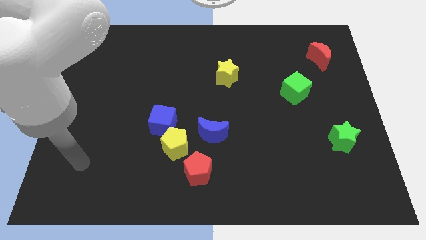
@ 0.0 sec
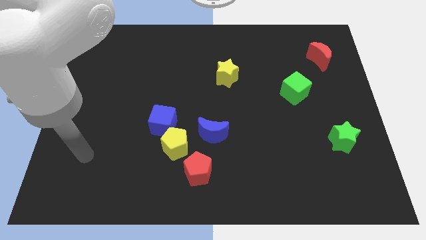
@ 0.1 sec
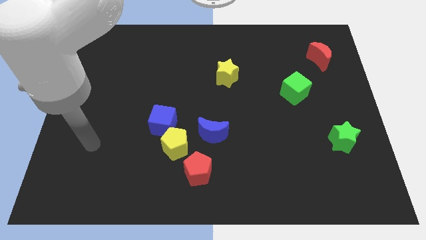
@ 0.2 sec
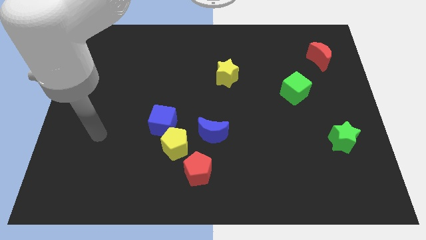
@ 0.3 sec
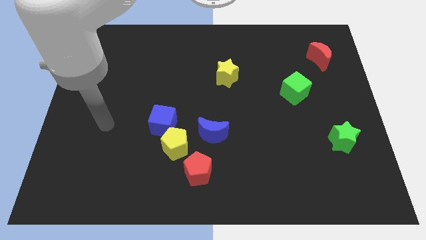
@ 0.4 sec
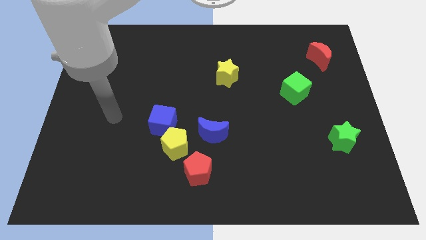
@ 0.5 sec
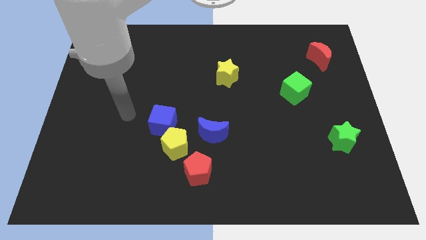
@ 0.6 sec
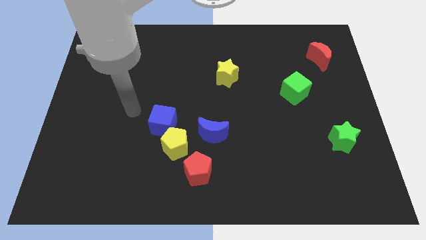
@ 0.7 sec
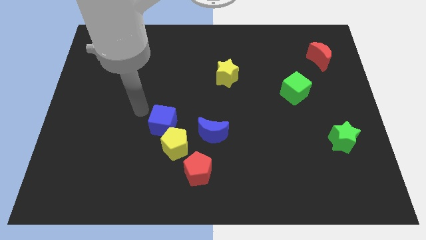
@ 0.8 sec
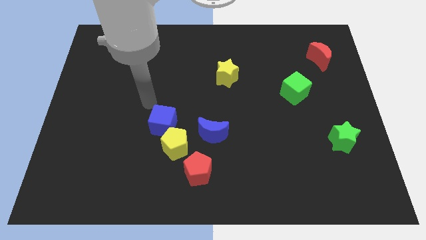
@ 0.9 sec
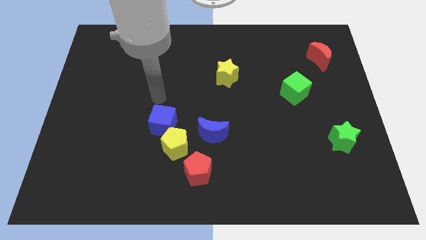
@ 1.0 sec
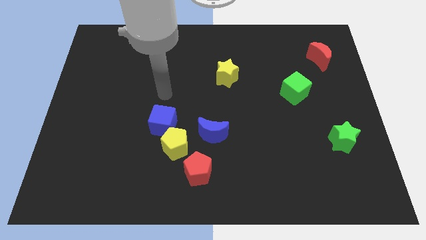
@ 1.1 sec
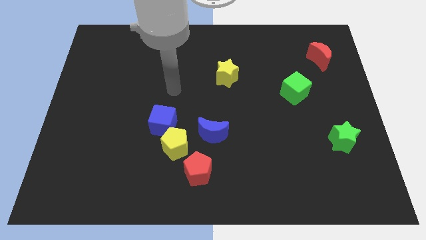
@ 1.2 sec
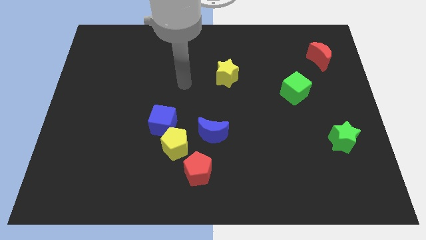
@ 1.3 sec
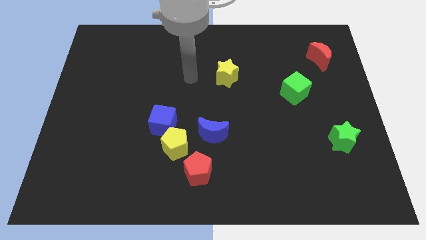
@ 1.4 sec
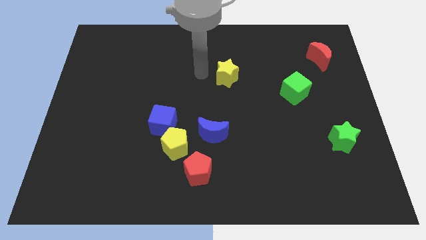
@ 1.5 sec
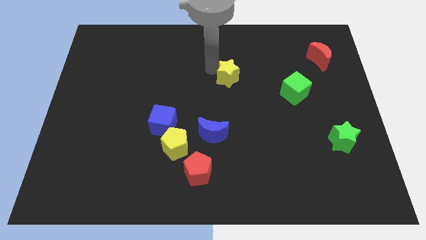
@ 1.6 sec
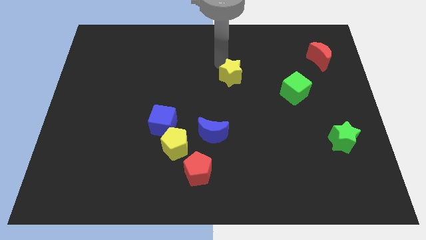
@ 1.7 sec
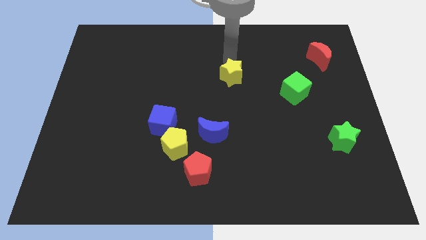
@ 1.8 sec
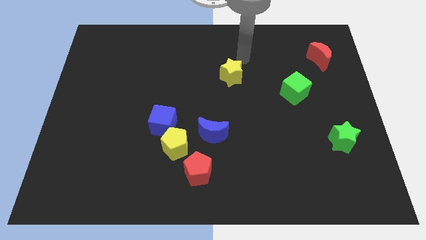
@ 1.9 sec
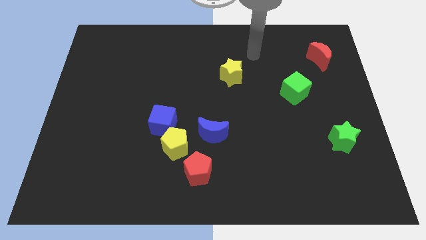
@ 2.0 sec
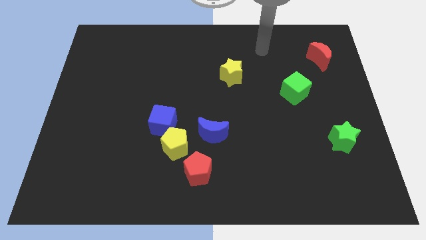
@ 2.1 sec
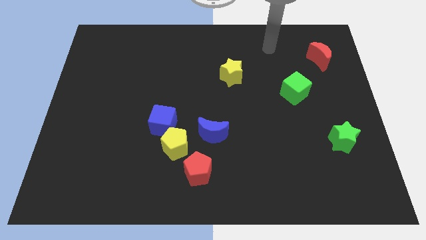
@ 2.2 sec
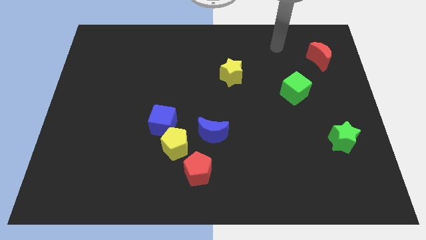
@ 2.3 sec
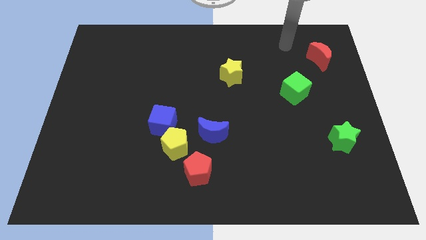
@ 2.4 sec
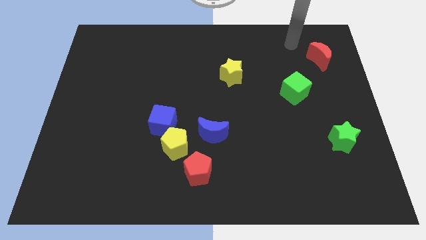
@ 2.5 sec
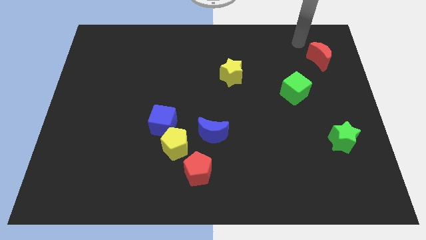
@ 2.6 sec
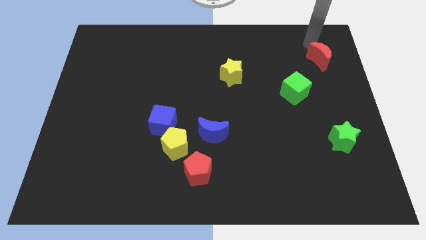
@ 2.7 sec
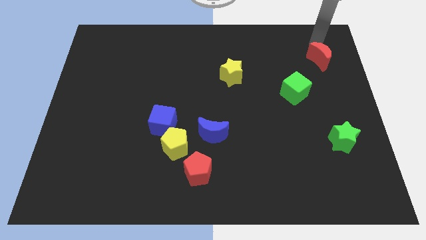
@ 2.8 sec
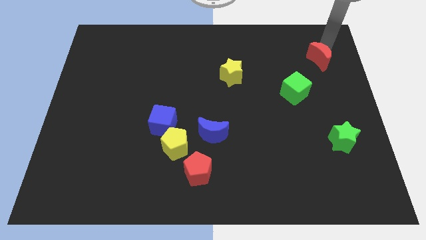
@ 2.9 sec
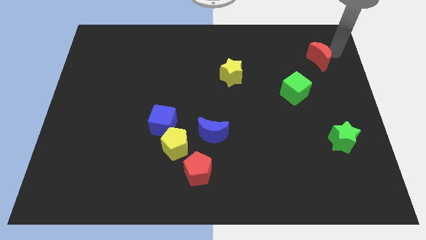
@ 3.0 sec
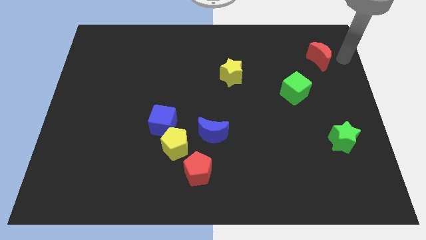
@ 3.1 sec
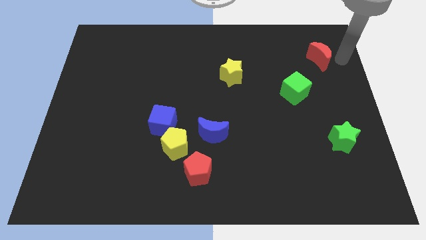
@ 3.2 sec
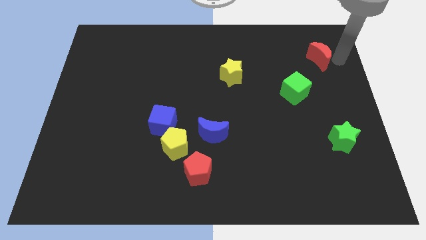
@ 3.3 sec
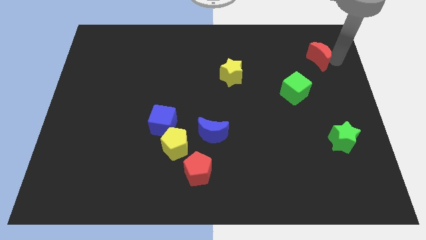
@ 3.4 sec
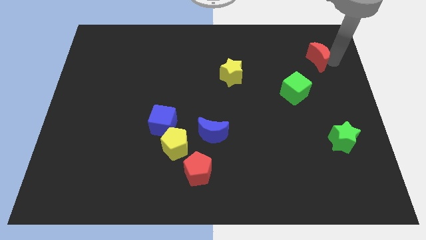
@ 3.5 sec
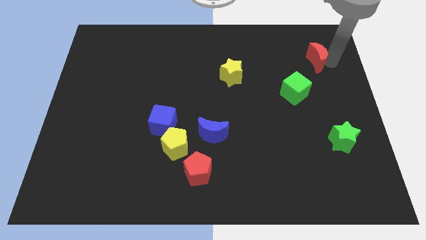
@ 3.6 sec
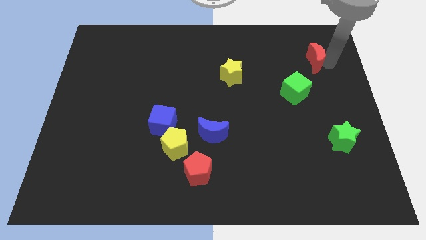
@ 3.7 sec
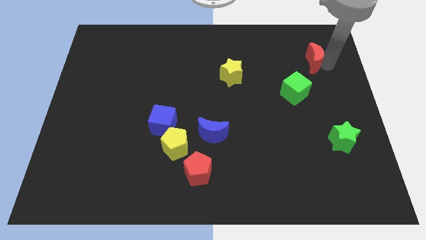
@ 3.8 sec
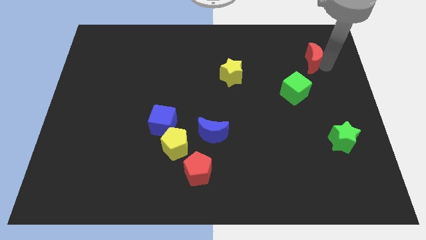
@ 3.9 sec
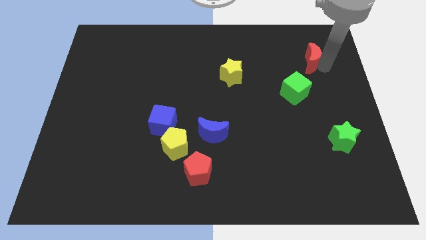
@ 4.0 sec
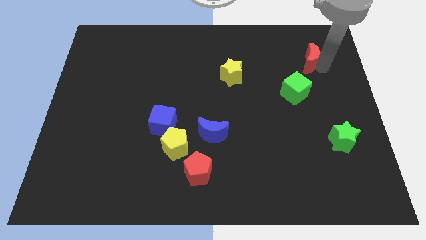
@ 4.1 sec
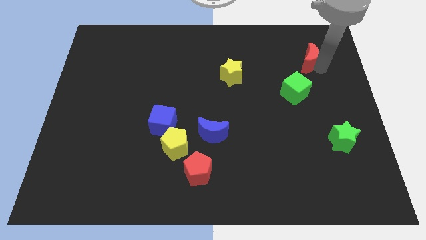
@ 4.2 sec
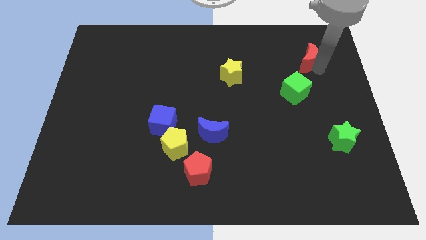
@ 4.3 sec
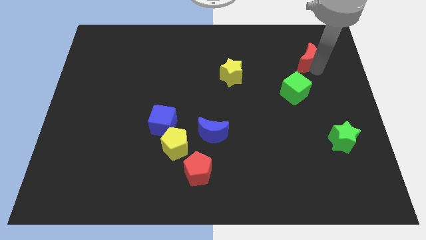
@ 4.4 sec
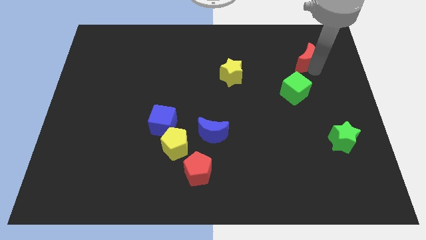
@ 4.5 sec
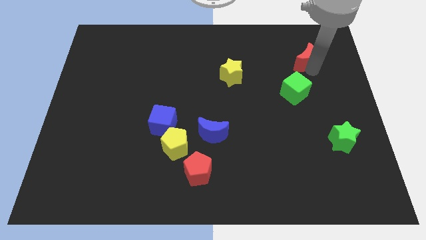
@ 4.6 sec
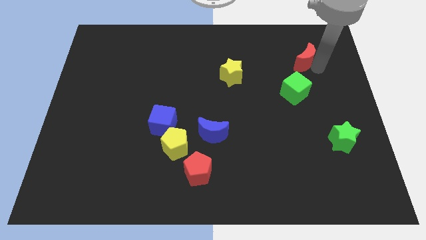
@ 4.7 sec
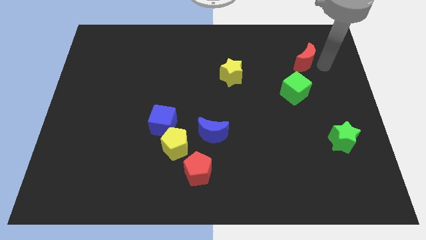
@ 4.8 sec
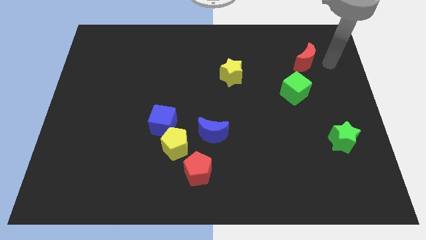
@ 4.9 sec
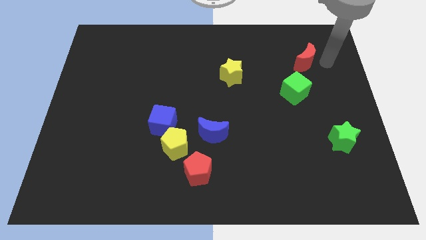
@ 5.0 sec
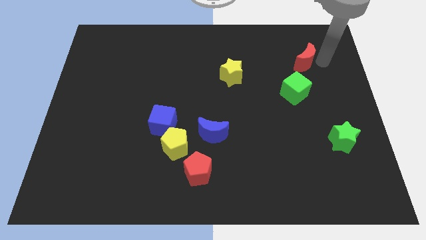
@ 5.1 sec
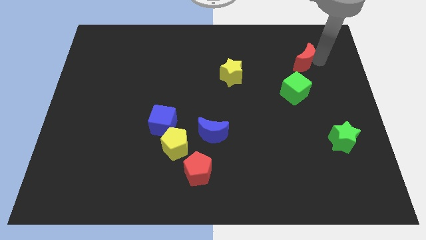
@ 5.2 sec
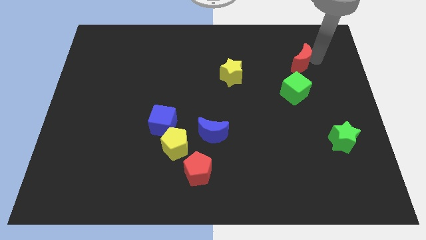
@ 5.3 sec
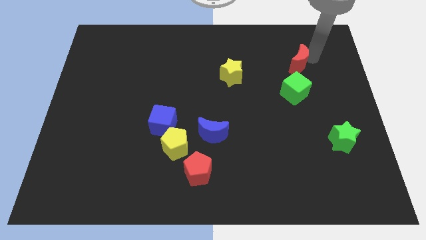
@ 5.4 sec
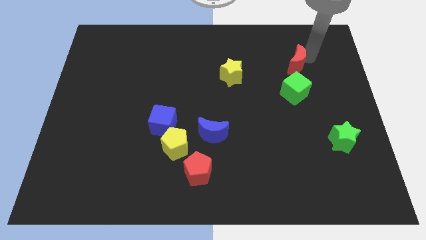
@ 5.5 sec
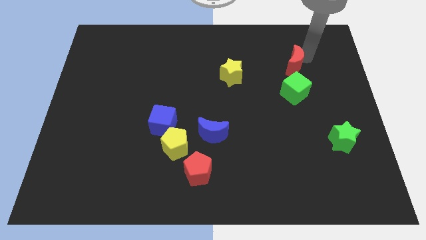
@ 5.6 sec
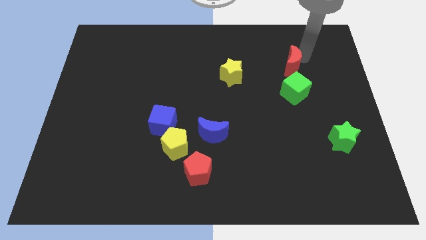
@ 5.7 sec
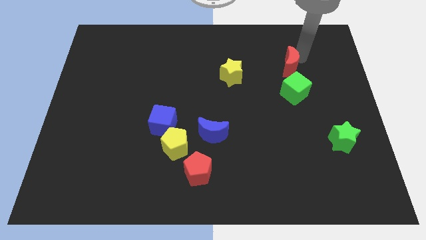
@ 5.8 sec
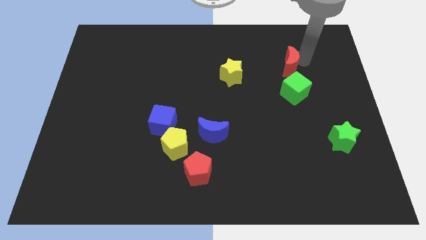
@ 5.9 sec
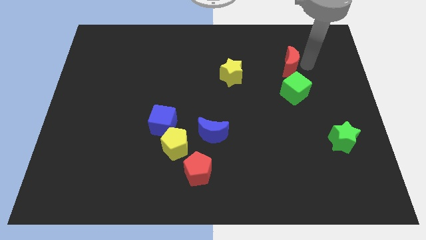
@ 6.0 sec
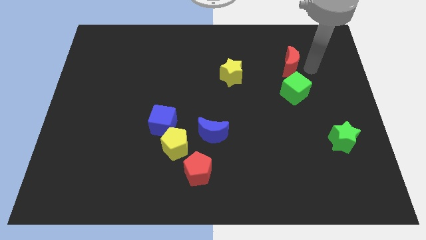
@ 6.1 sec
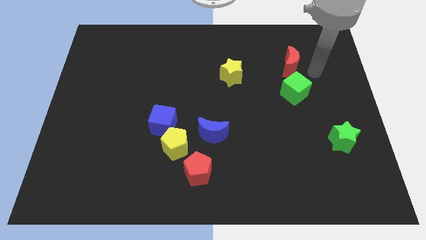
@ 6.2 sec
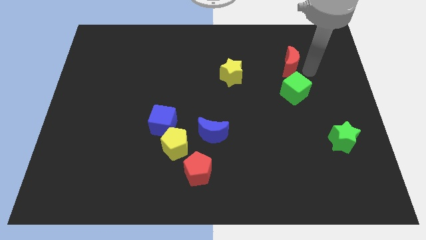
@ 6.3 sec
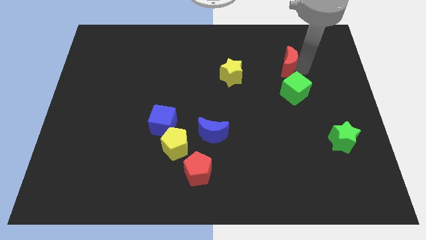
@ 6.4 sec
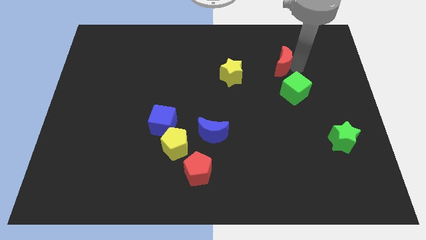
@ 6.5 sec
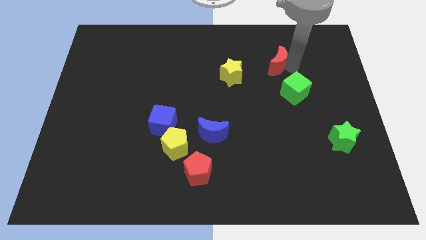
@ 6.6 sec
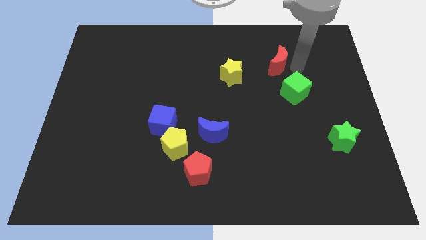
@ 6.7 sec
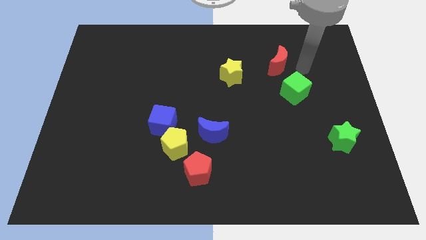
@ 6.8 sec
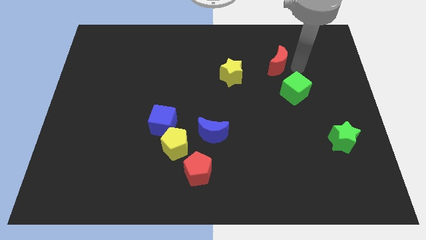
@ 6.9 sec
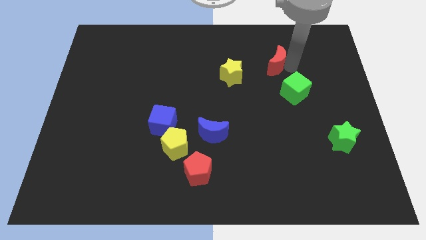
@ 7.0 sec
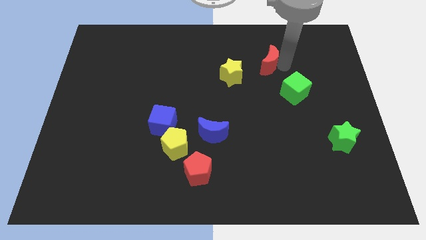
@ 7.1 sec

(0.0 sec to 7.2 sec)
put the red moon to the top right of the yellow star

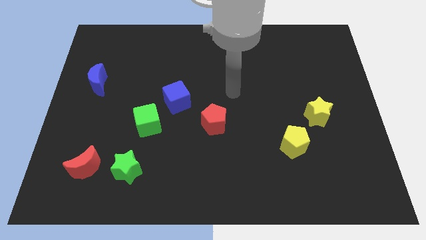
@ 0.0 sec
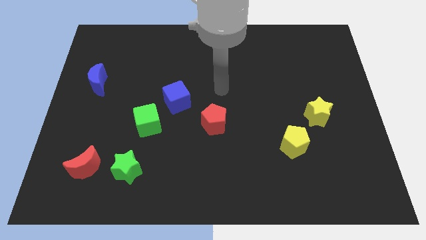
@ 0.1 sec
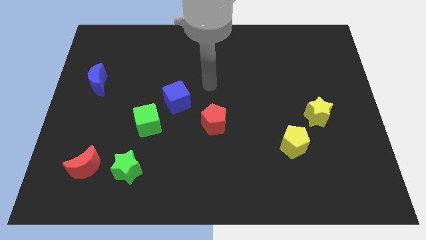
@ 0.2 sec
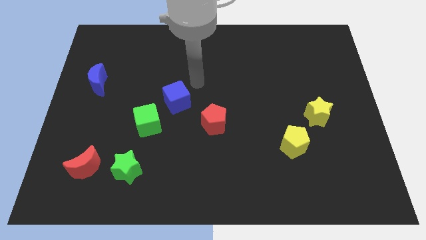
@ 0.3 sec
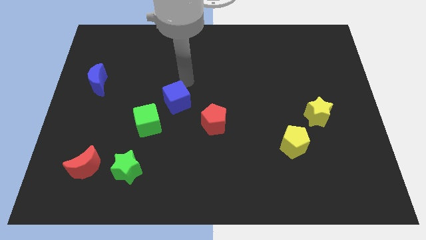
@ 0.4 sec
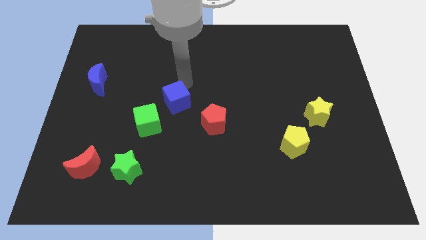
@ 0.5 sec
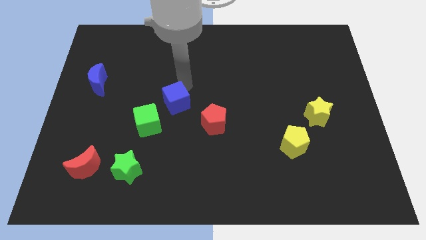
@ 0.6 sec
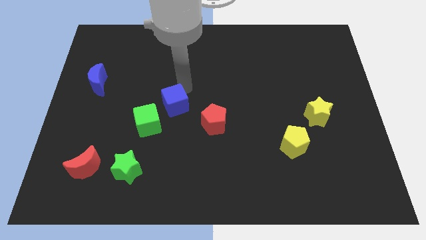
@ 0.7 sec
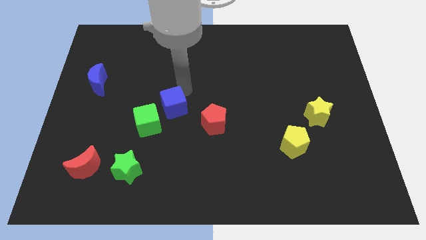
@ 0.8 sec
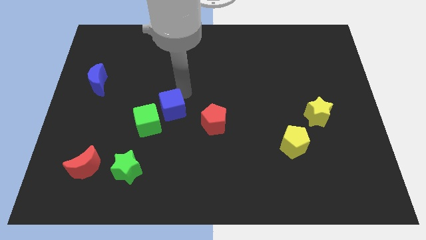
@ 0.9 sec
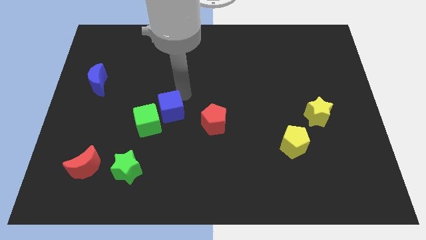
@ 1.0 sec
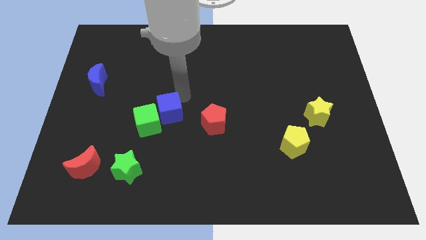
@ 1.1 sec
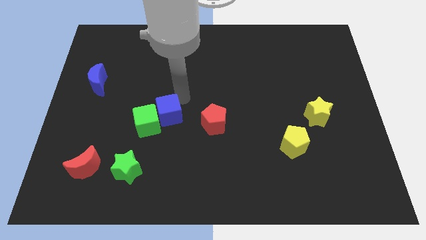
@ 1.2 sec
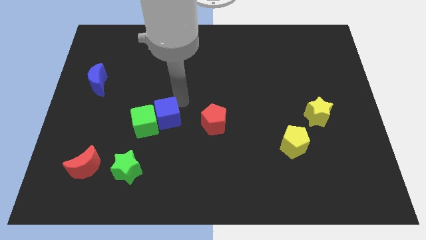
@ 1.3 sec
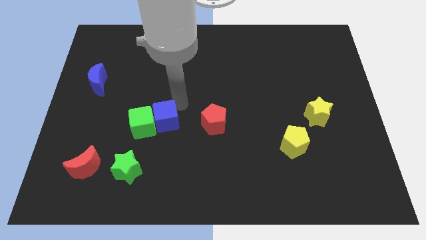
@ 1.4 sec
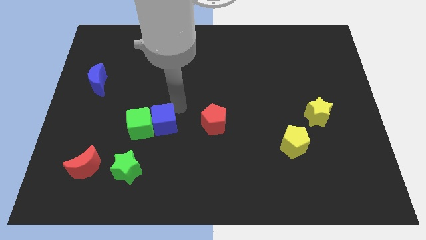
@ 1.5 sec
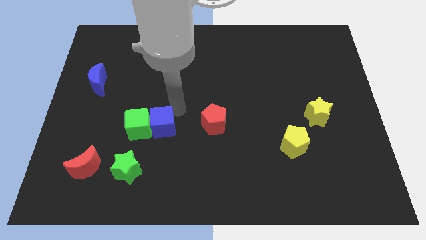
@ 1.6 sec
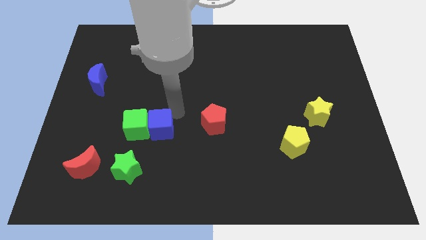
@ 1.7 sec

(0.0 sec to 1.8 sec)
push the blue cube diagonally up and to the right of the green star
